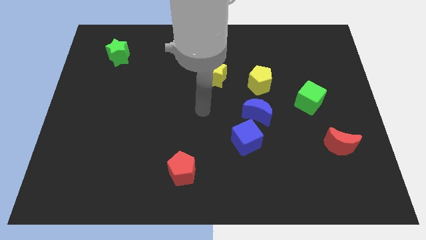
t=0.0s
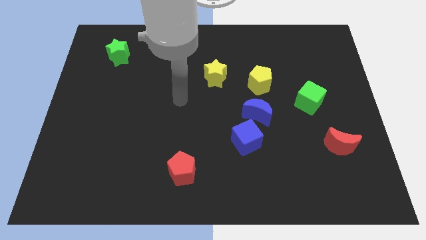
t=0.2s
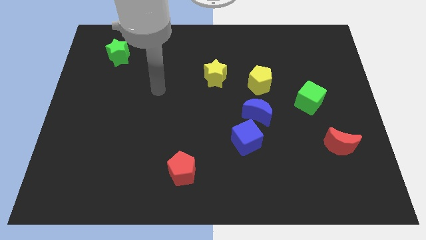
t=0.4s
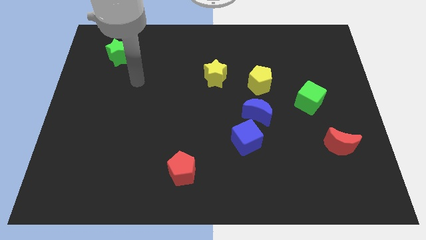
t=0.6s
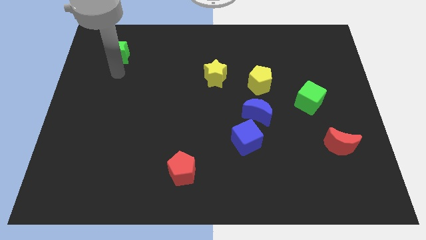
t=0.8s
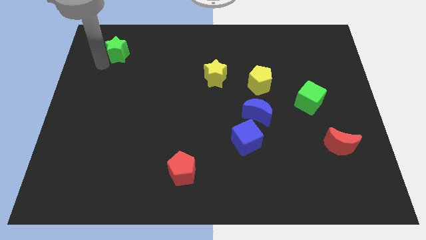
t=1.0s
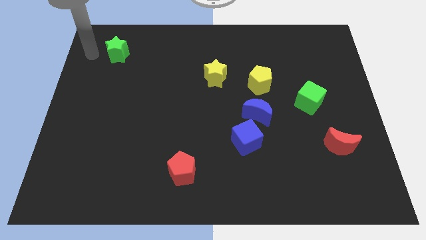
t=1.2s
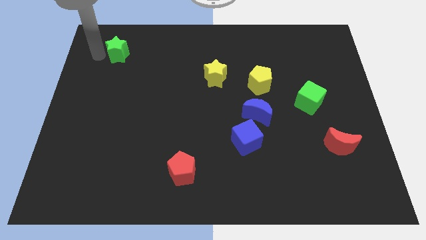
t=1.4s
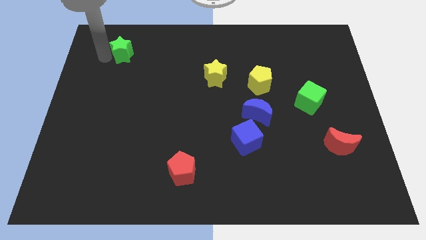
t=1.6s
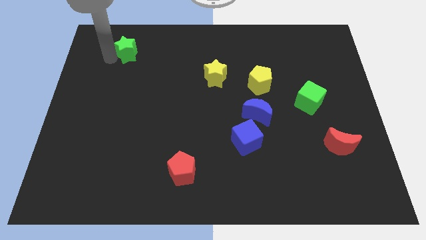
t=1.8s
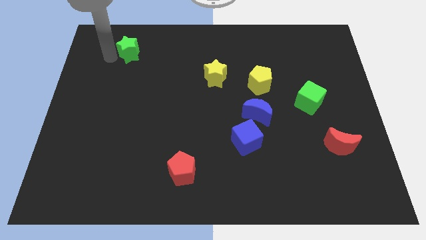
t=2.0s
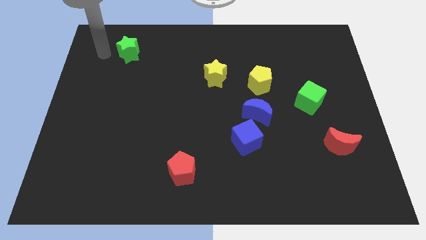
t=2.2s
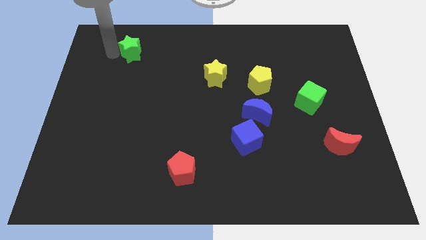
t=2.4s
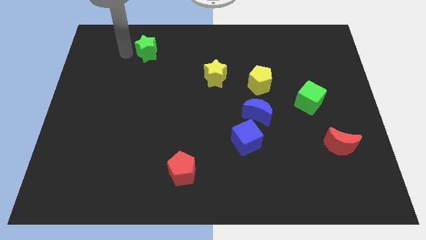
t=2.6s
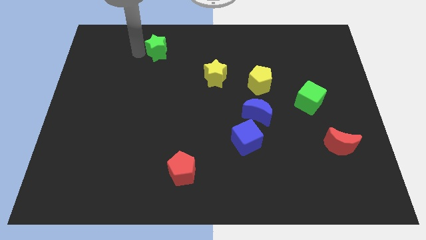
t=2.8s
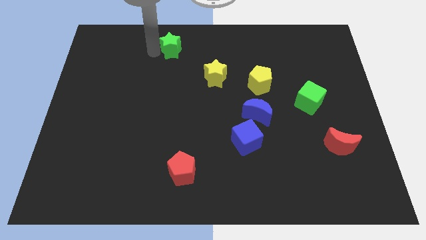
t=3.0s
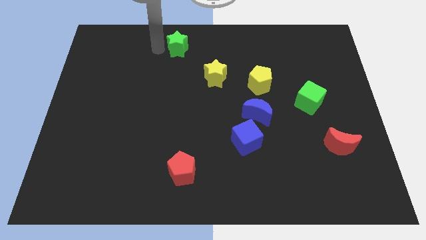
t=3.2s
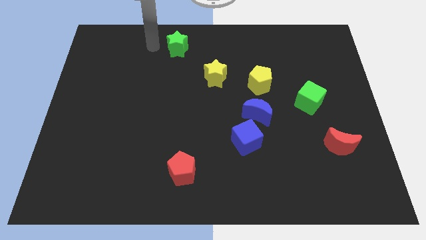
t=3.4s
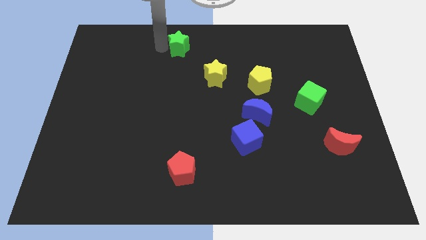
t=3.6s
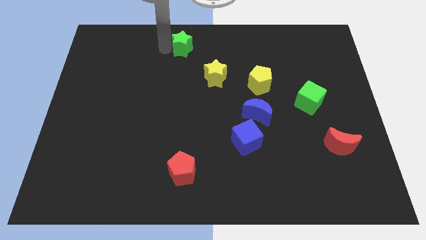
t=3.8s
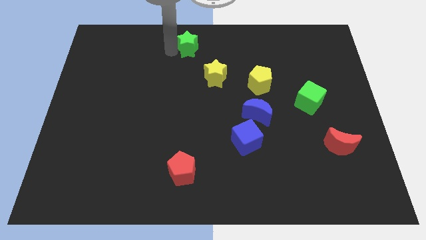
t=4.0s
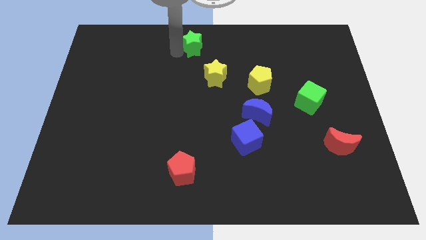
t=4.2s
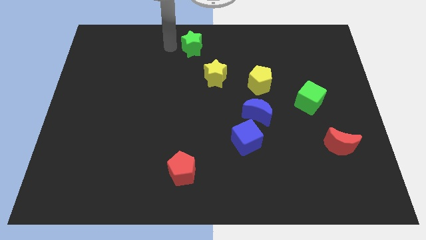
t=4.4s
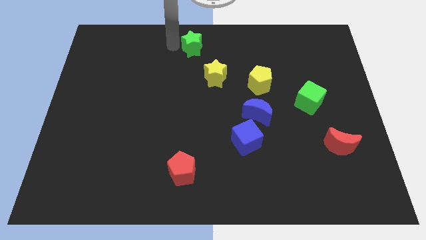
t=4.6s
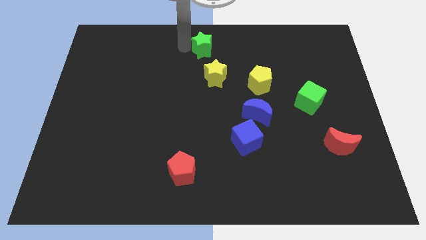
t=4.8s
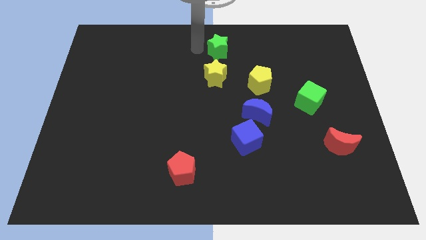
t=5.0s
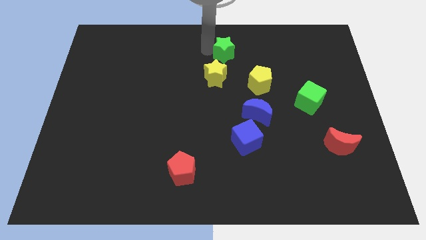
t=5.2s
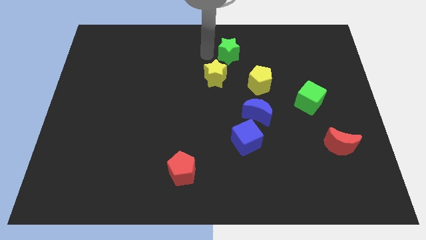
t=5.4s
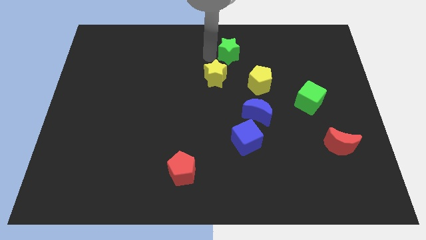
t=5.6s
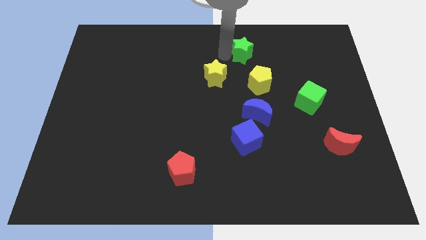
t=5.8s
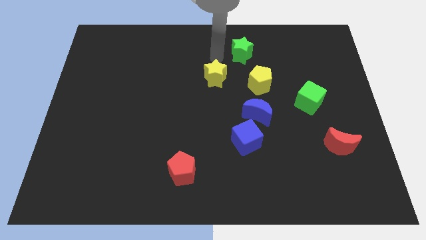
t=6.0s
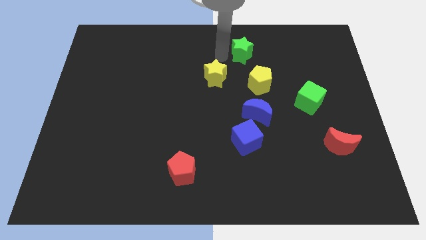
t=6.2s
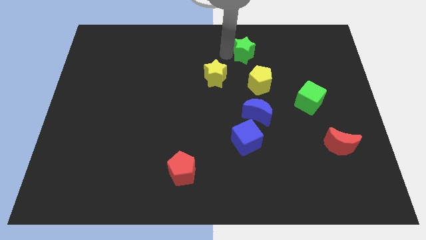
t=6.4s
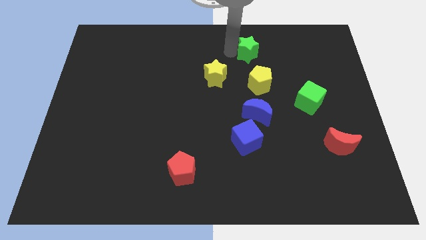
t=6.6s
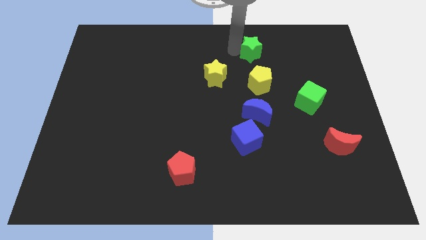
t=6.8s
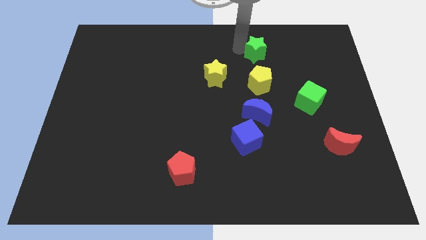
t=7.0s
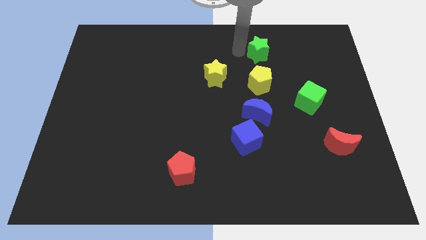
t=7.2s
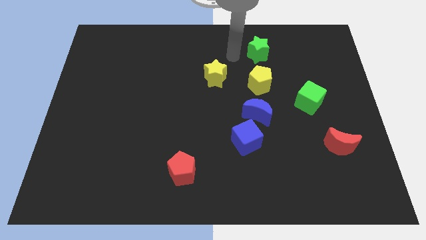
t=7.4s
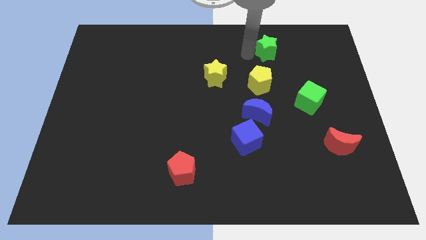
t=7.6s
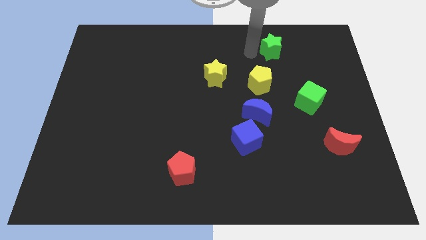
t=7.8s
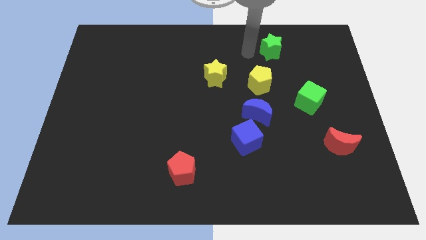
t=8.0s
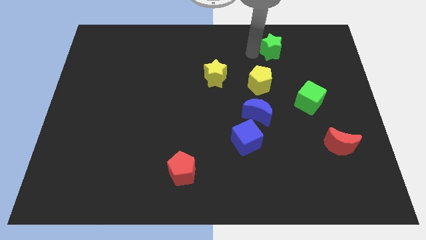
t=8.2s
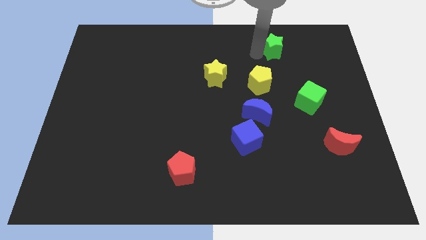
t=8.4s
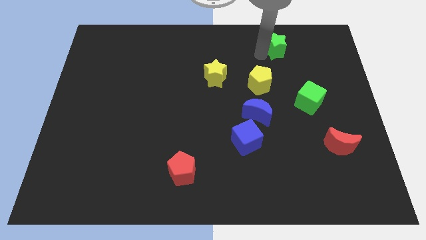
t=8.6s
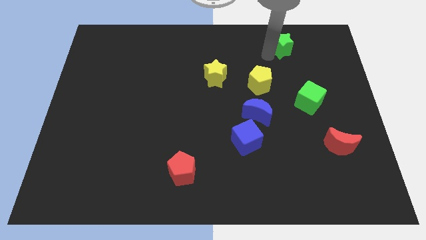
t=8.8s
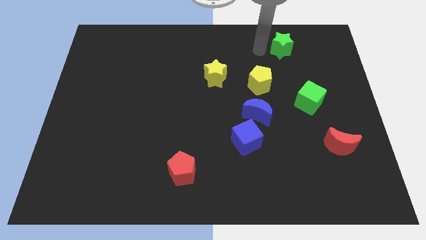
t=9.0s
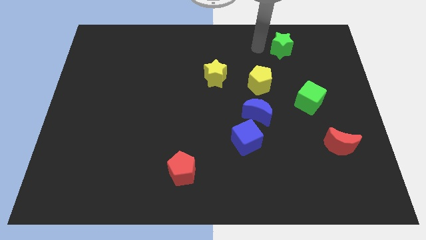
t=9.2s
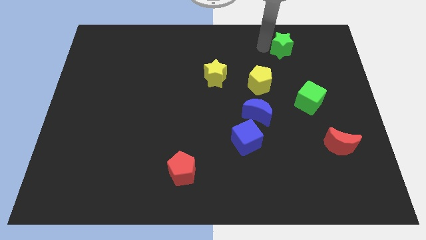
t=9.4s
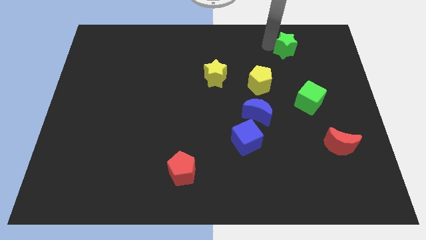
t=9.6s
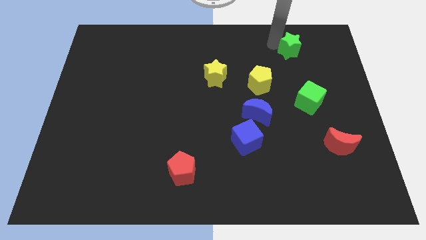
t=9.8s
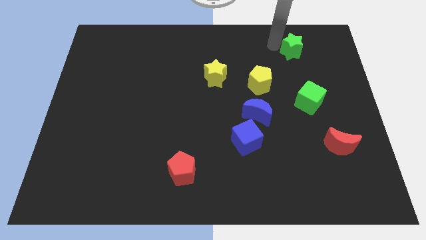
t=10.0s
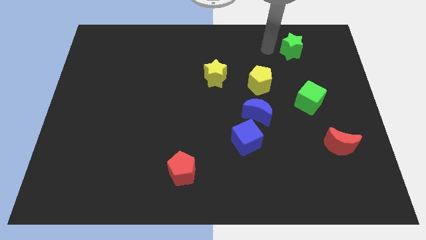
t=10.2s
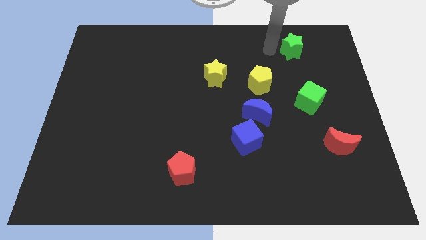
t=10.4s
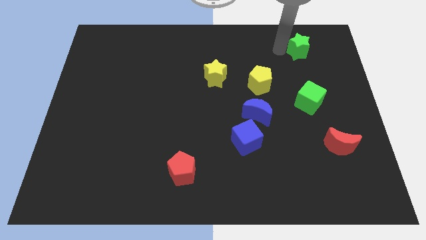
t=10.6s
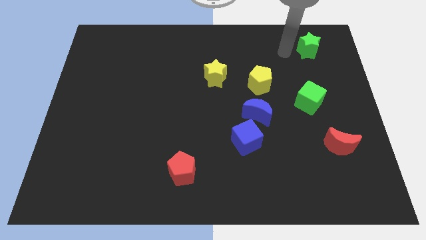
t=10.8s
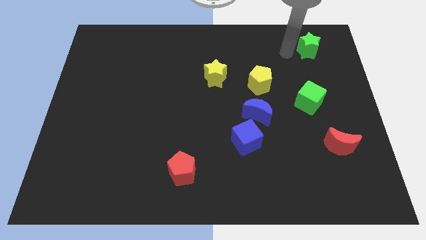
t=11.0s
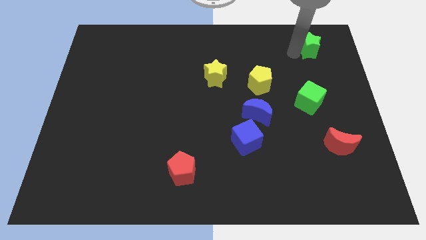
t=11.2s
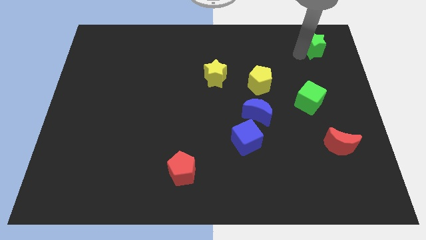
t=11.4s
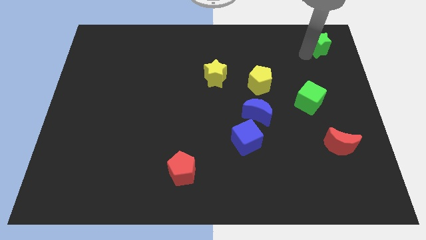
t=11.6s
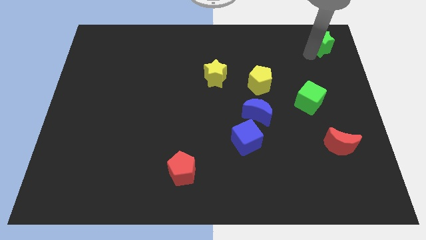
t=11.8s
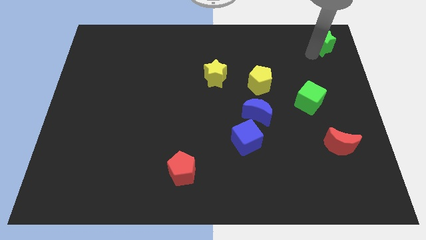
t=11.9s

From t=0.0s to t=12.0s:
put the green star to the top right of the board
